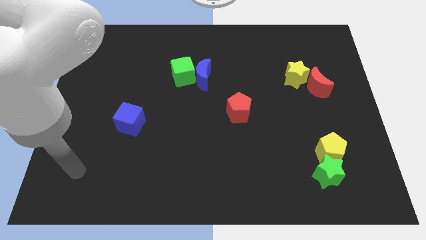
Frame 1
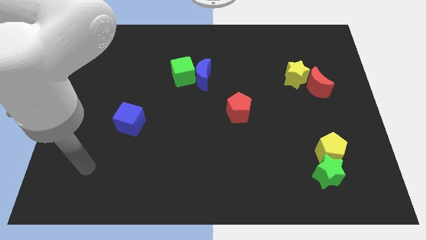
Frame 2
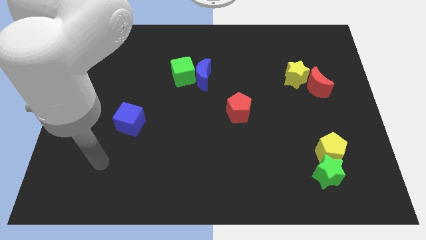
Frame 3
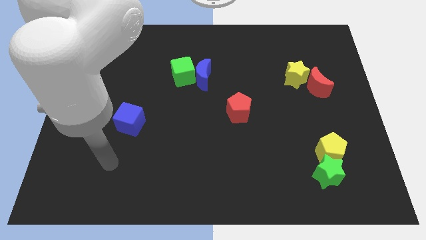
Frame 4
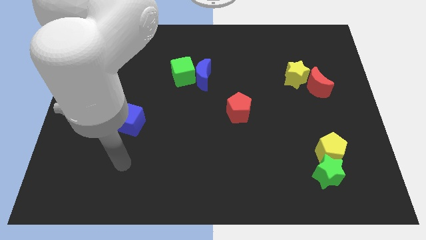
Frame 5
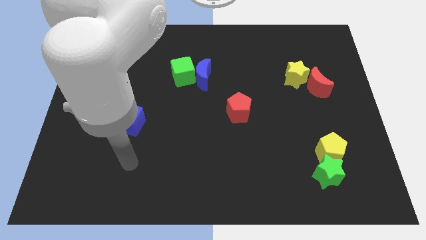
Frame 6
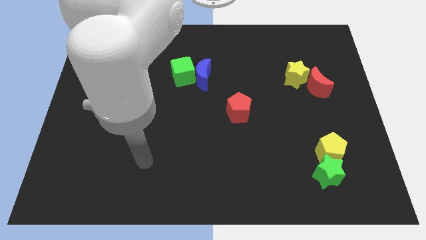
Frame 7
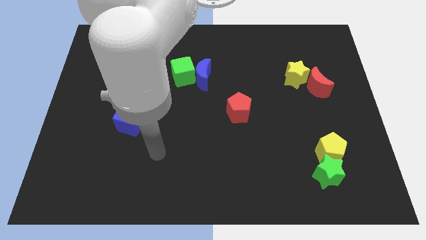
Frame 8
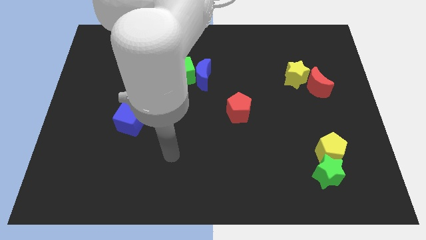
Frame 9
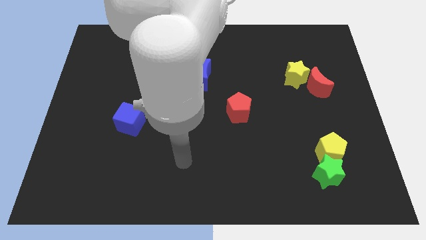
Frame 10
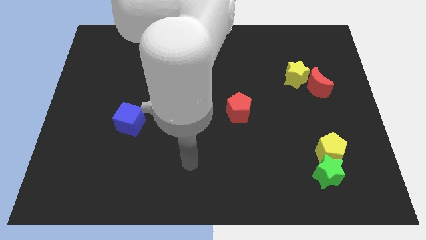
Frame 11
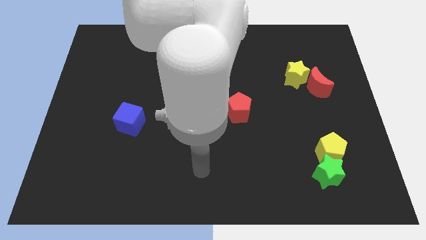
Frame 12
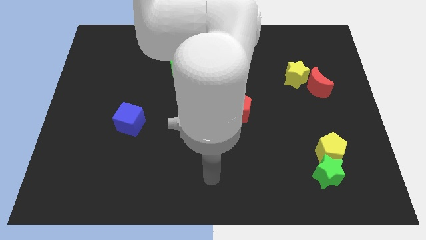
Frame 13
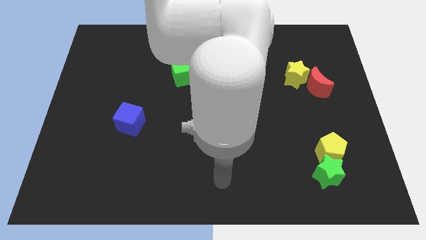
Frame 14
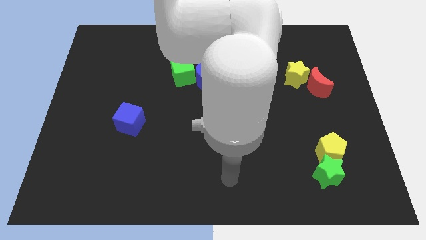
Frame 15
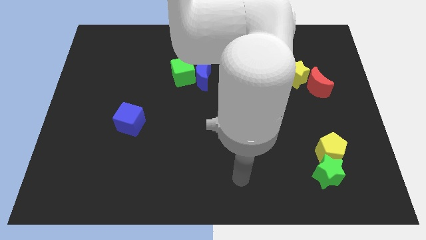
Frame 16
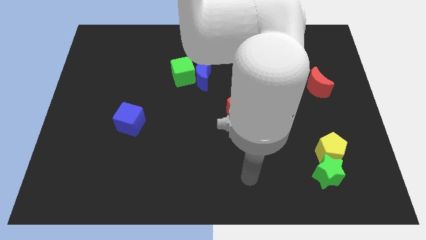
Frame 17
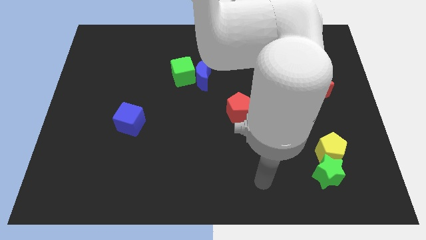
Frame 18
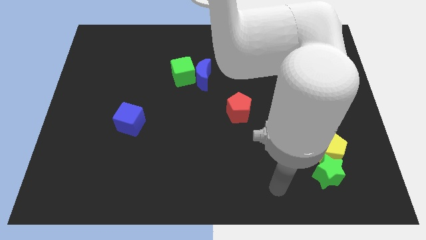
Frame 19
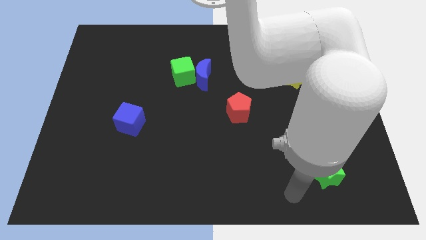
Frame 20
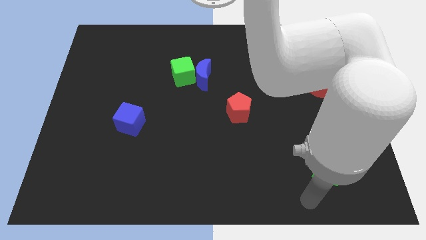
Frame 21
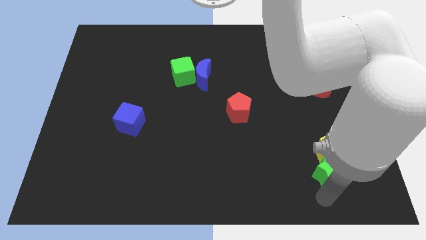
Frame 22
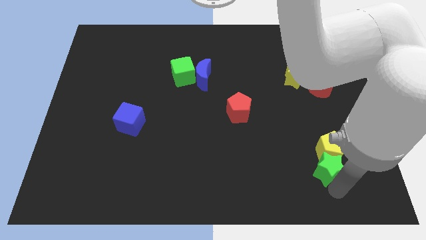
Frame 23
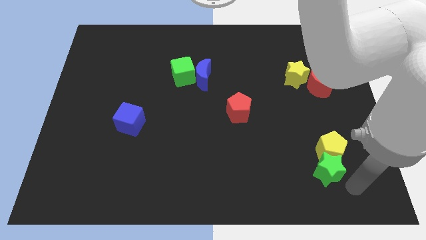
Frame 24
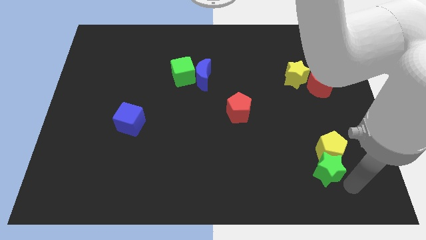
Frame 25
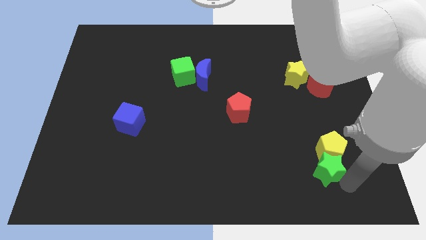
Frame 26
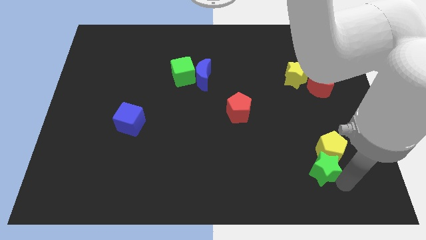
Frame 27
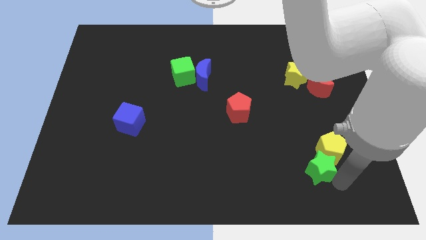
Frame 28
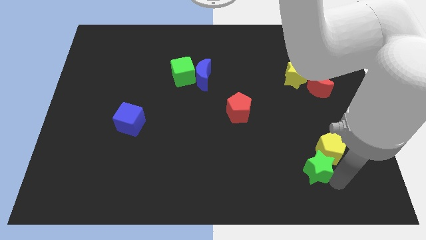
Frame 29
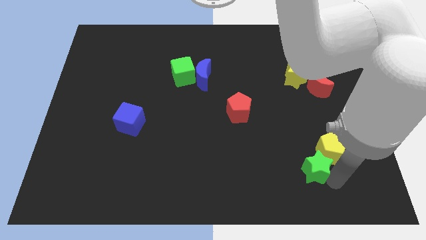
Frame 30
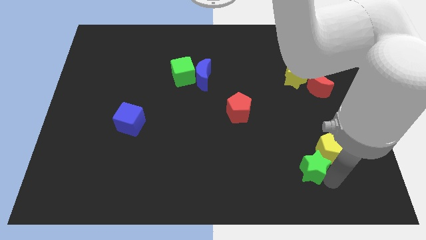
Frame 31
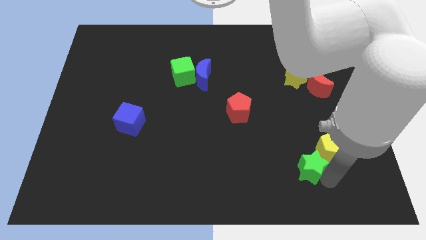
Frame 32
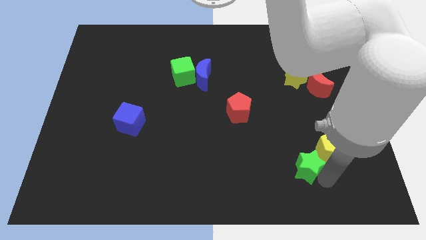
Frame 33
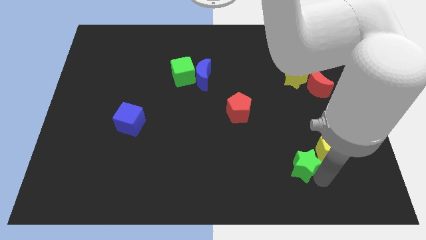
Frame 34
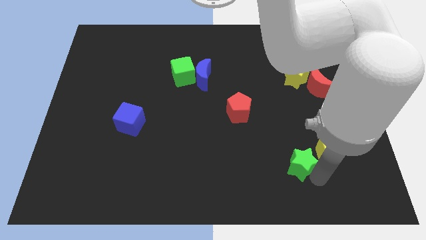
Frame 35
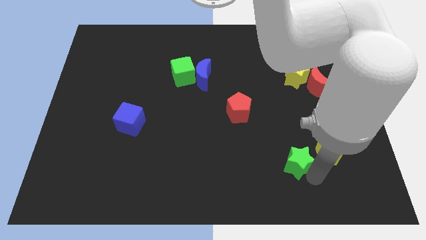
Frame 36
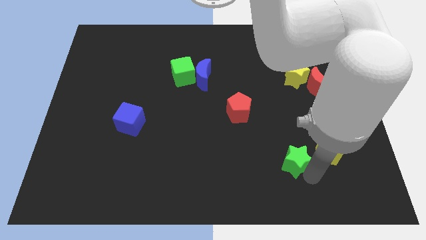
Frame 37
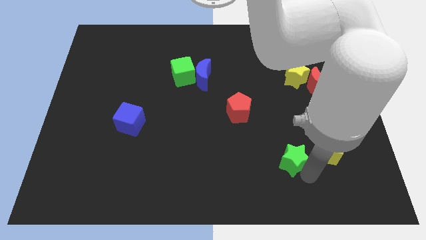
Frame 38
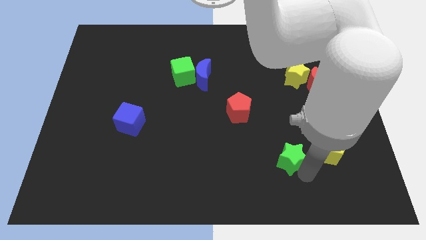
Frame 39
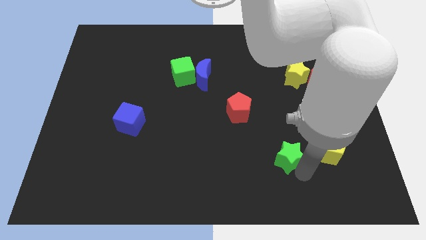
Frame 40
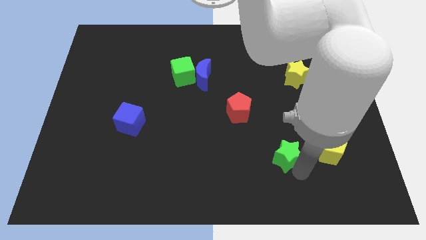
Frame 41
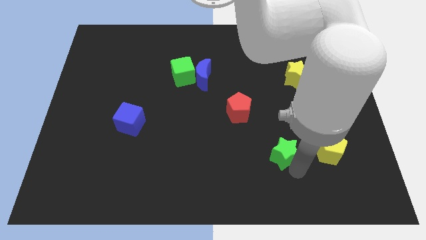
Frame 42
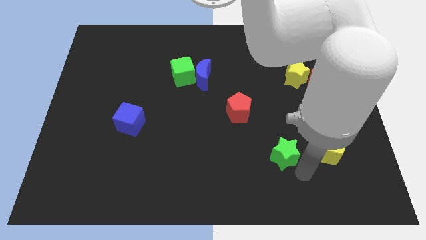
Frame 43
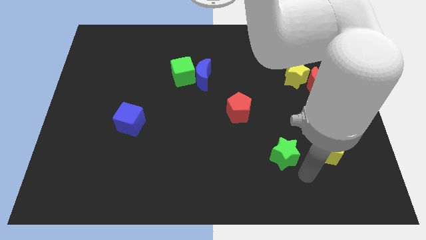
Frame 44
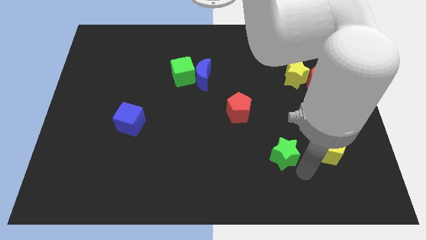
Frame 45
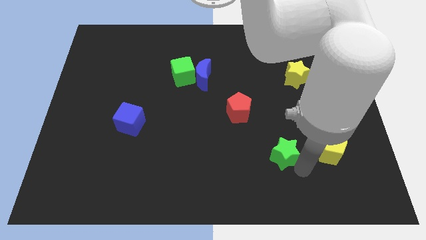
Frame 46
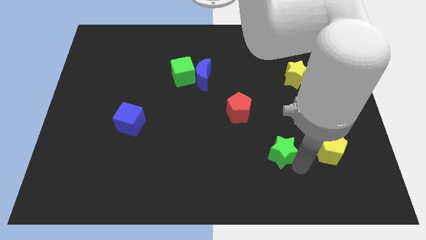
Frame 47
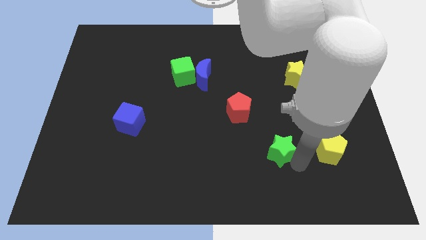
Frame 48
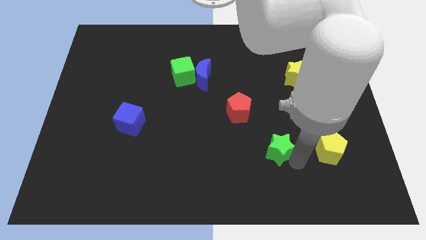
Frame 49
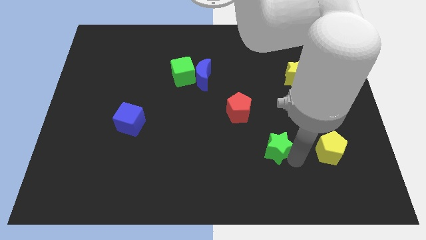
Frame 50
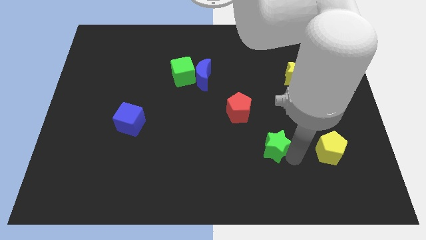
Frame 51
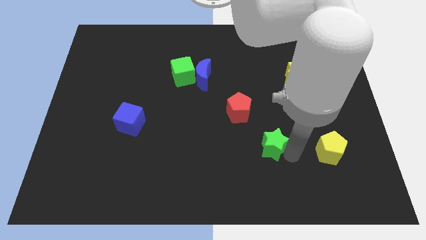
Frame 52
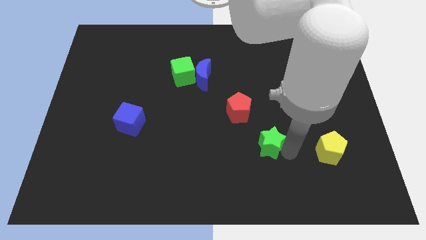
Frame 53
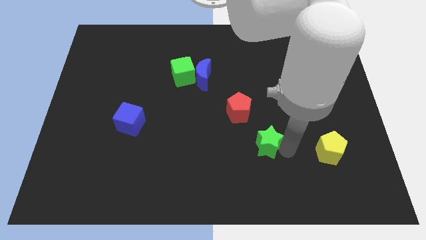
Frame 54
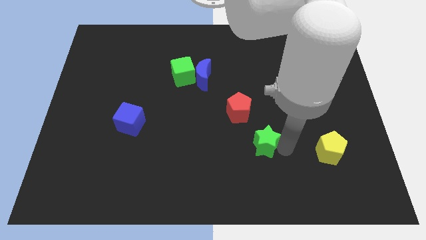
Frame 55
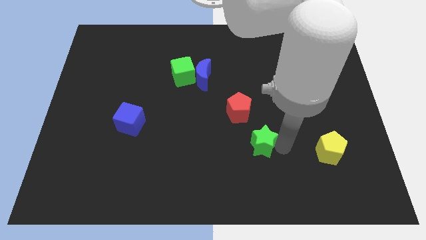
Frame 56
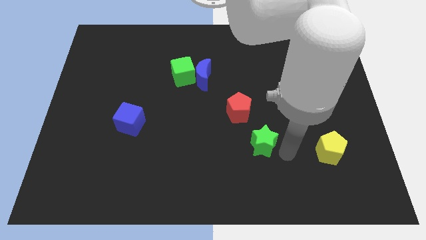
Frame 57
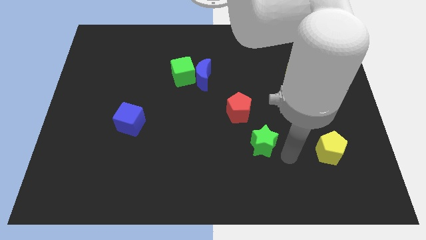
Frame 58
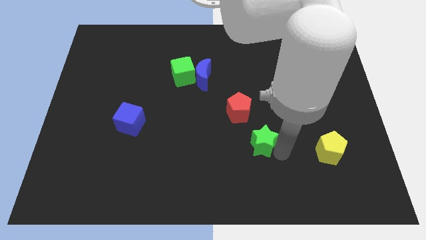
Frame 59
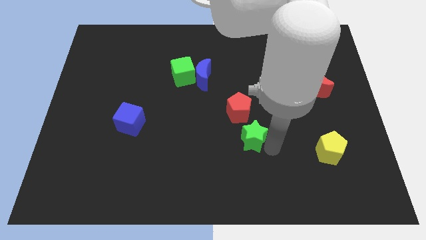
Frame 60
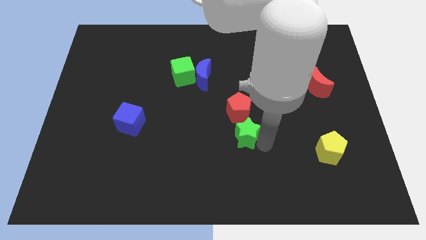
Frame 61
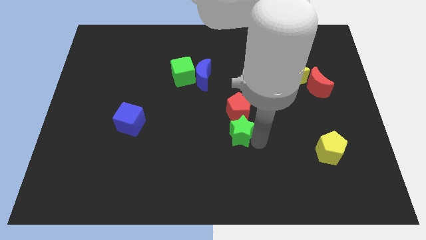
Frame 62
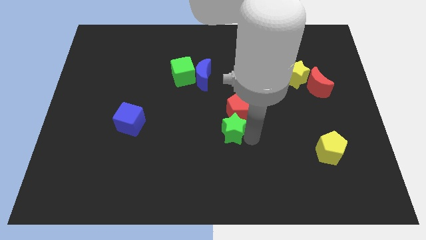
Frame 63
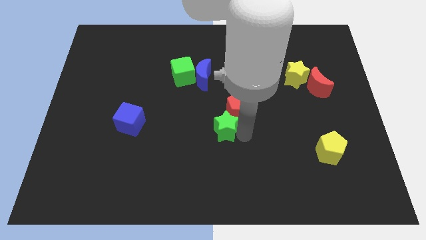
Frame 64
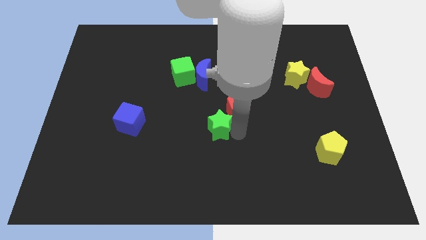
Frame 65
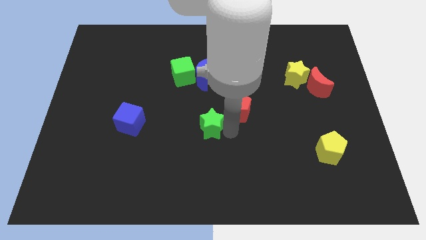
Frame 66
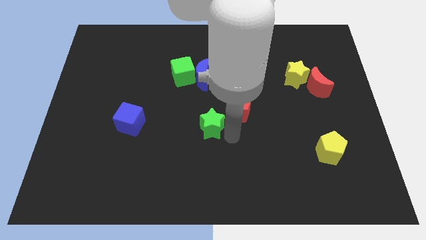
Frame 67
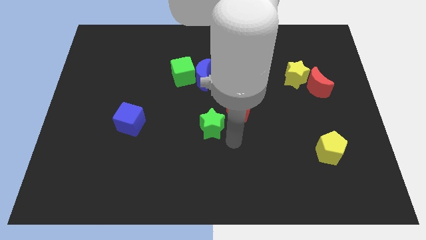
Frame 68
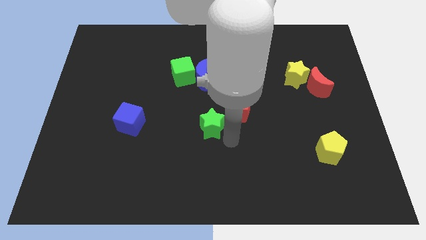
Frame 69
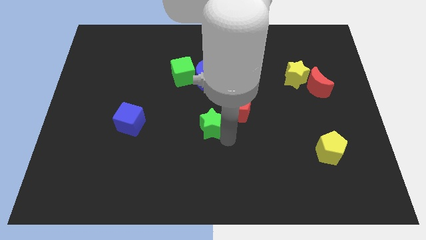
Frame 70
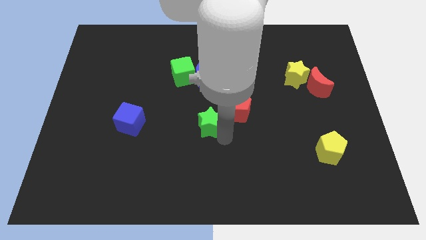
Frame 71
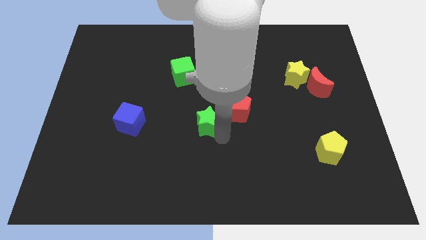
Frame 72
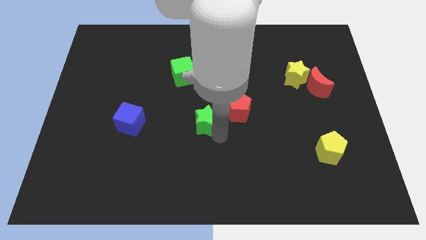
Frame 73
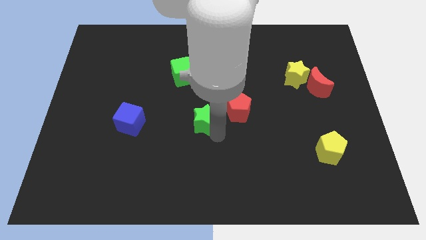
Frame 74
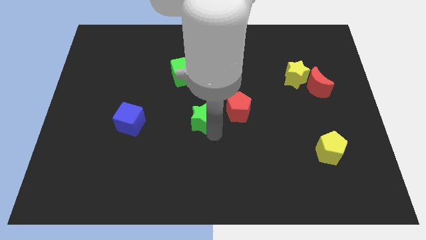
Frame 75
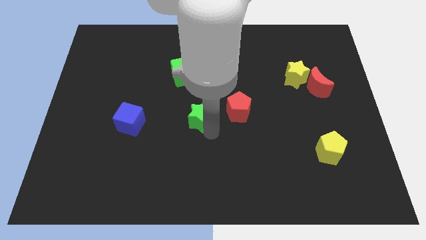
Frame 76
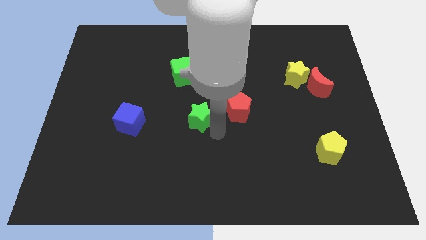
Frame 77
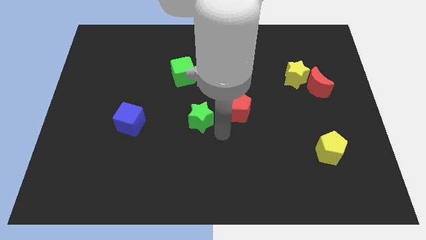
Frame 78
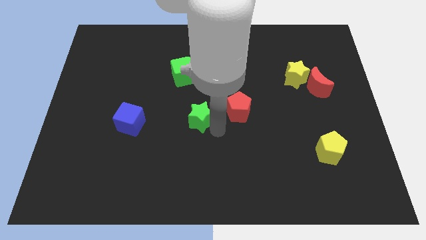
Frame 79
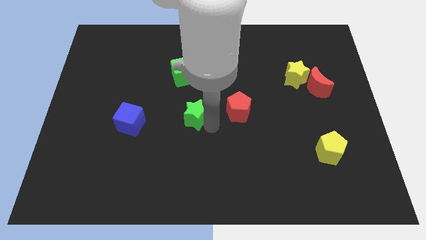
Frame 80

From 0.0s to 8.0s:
push the green star to the bottom of the green cube
